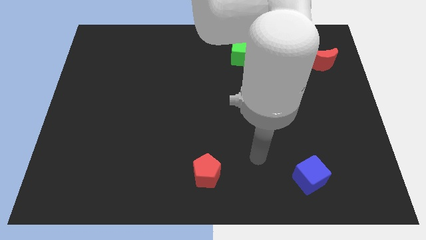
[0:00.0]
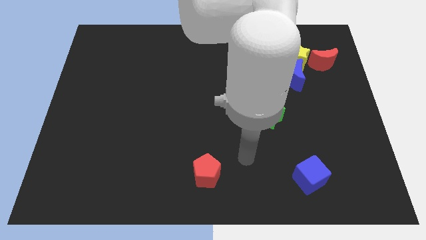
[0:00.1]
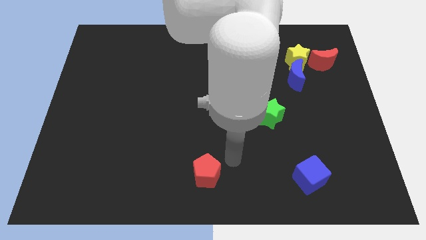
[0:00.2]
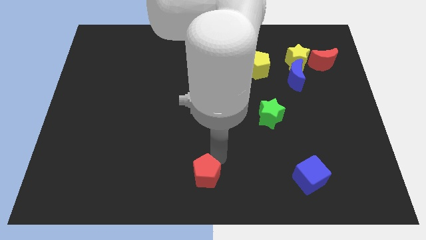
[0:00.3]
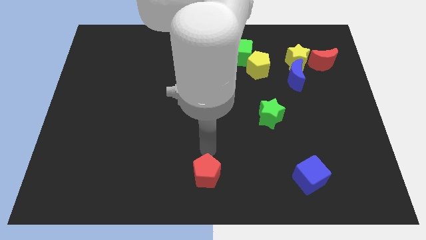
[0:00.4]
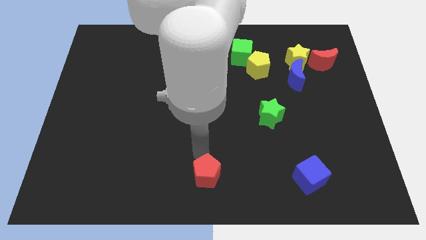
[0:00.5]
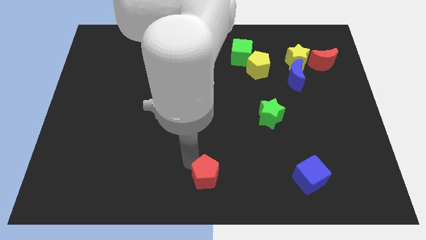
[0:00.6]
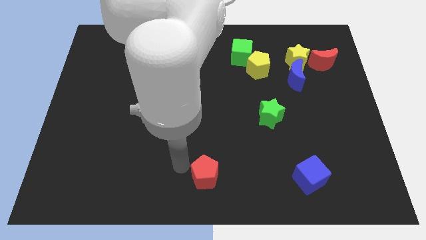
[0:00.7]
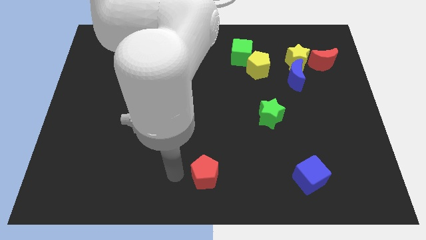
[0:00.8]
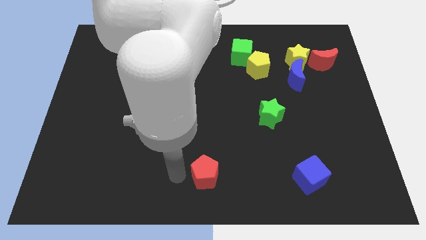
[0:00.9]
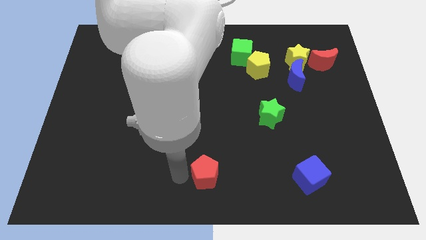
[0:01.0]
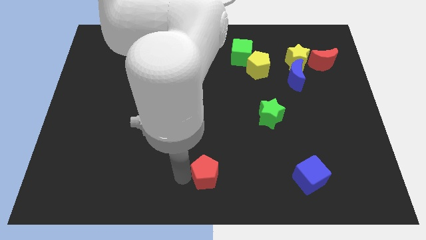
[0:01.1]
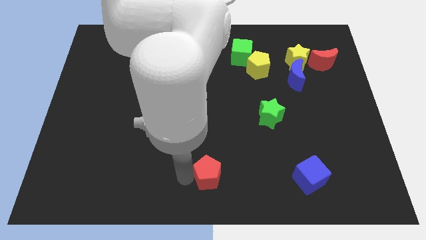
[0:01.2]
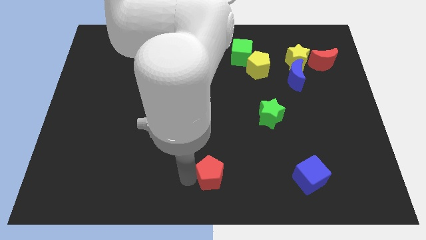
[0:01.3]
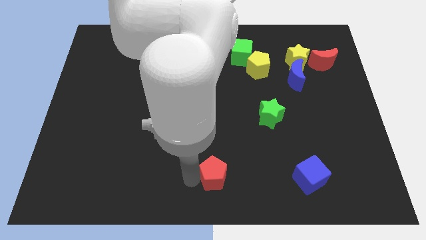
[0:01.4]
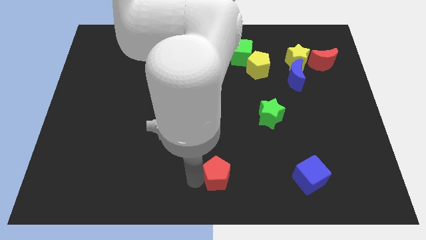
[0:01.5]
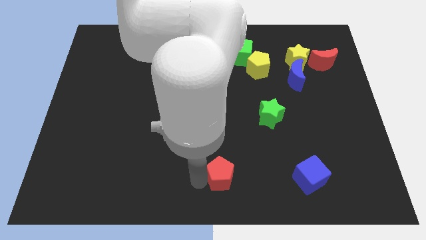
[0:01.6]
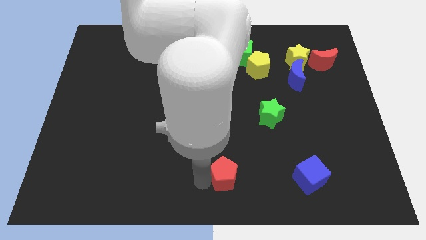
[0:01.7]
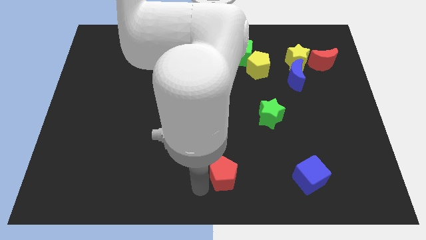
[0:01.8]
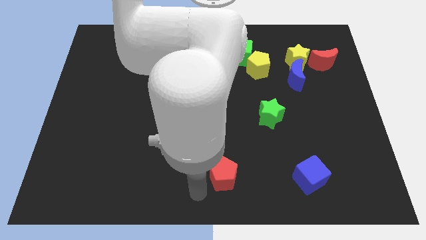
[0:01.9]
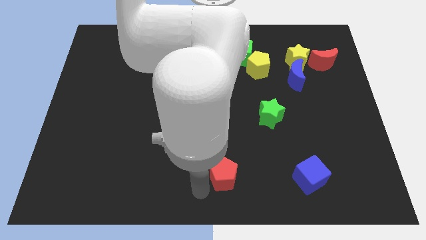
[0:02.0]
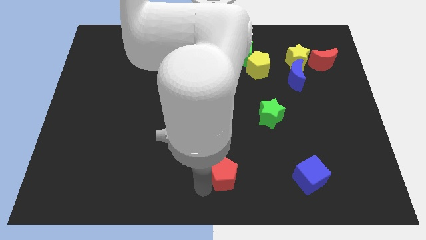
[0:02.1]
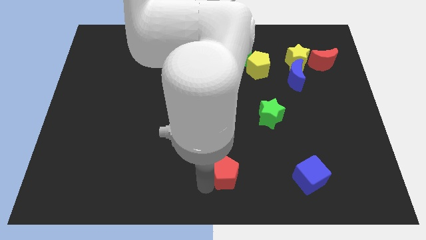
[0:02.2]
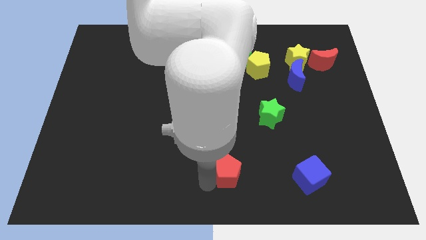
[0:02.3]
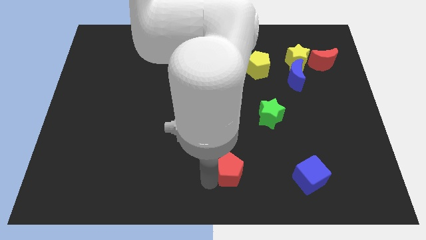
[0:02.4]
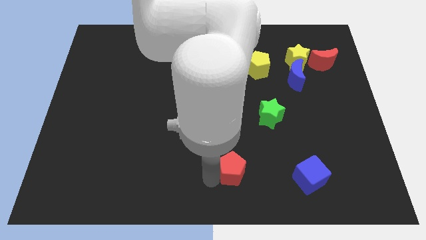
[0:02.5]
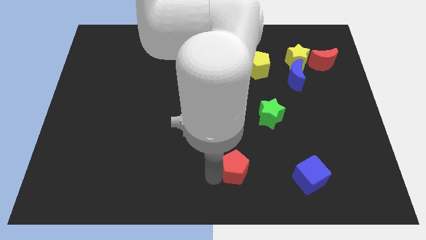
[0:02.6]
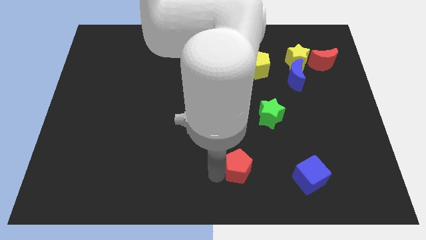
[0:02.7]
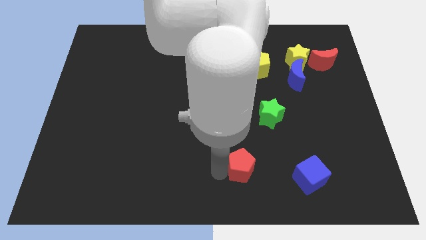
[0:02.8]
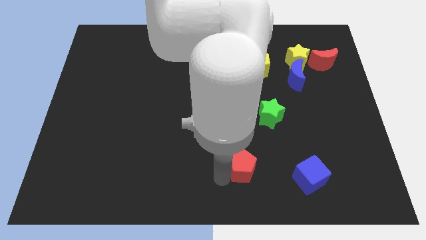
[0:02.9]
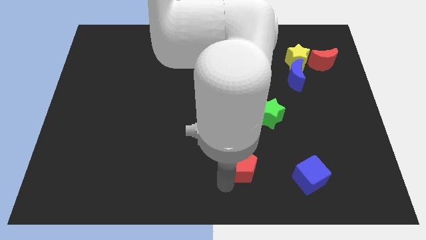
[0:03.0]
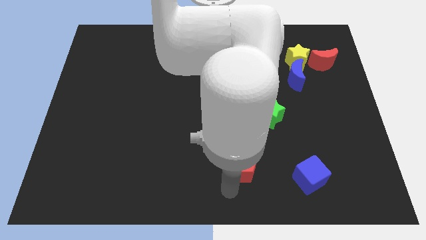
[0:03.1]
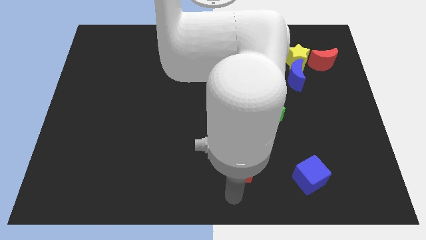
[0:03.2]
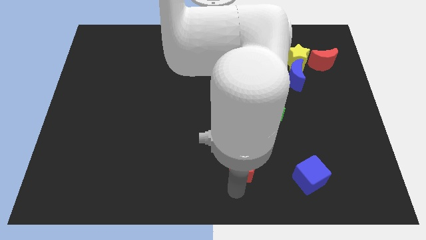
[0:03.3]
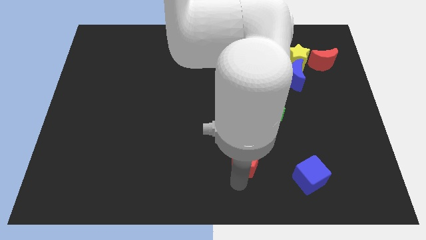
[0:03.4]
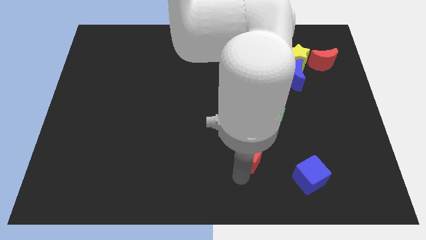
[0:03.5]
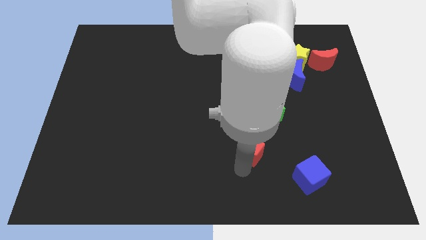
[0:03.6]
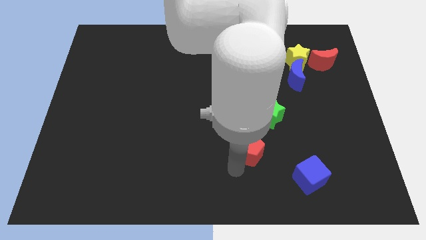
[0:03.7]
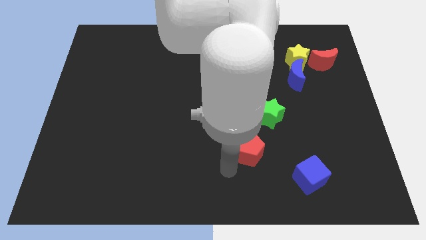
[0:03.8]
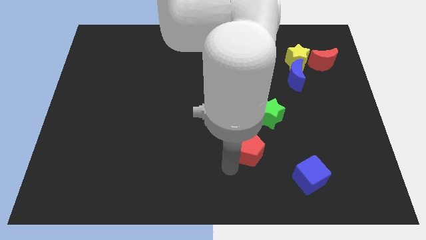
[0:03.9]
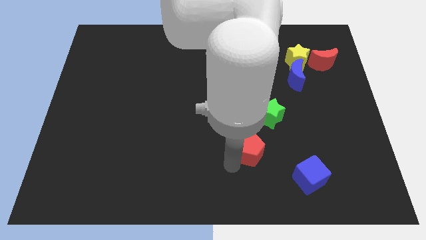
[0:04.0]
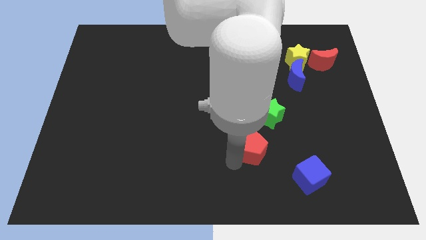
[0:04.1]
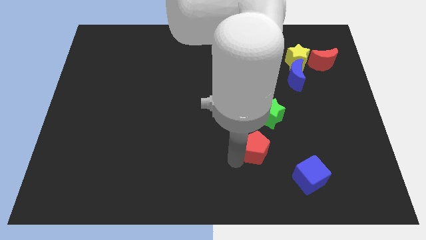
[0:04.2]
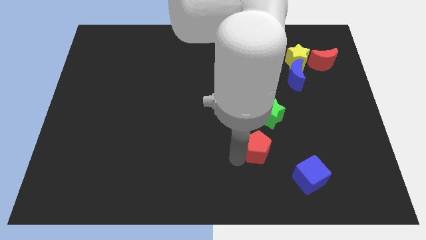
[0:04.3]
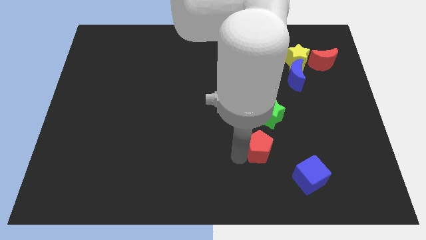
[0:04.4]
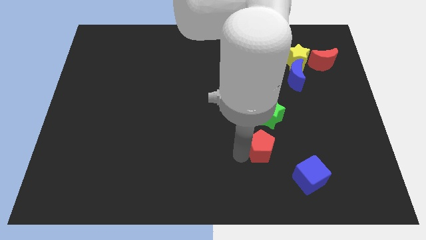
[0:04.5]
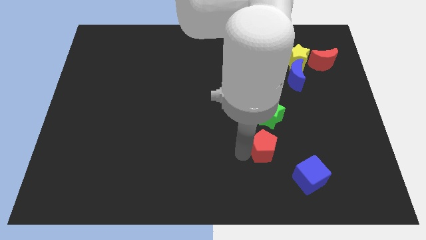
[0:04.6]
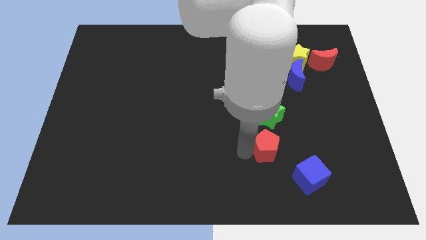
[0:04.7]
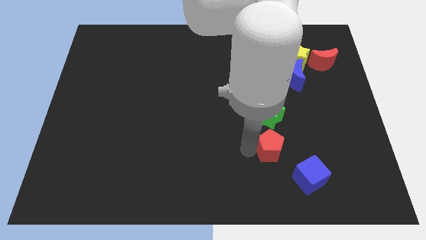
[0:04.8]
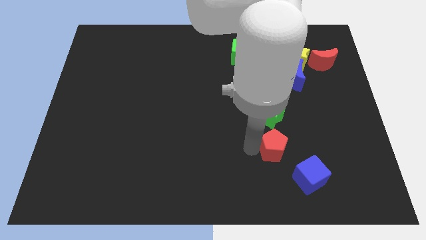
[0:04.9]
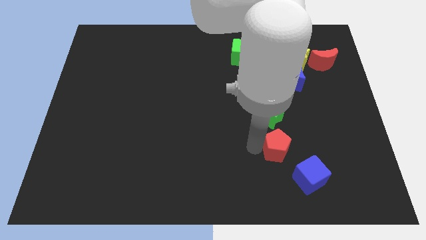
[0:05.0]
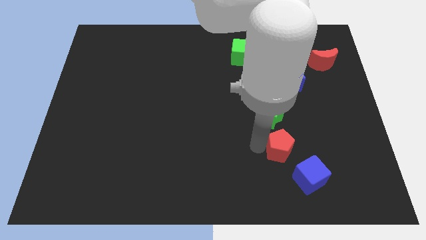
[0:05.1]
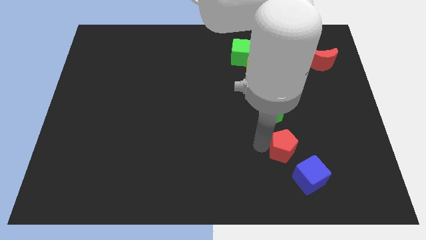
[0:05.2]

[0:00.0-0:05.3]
slide the red pentagon to the bottom right side of the green star

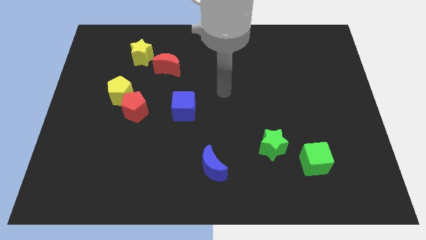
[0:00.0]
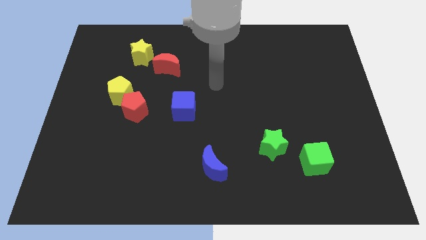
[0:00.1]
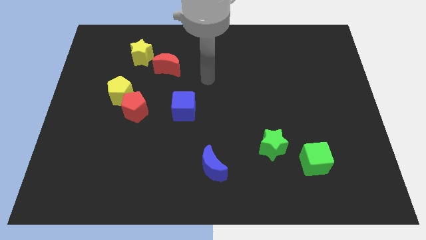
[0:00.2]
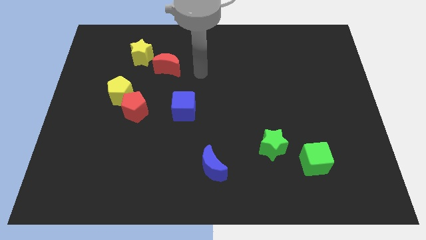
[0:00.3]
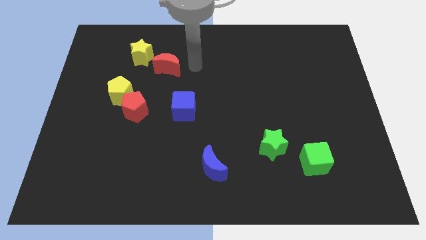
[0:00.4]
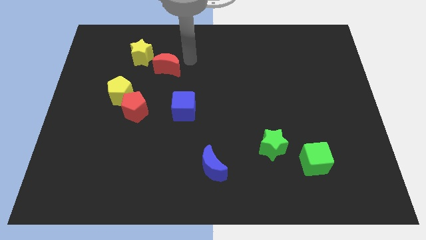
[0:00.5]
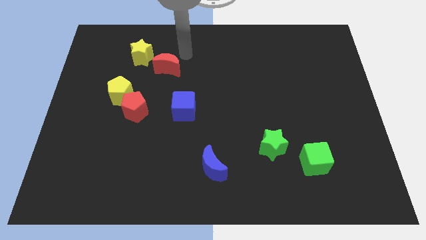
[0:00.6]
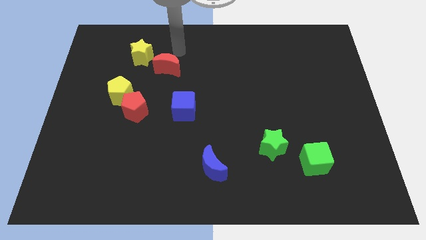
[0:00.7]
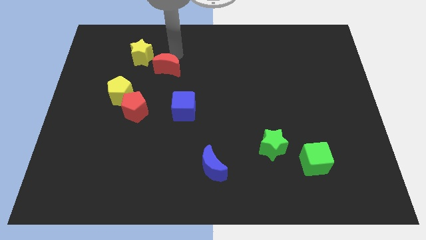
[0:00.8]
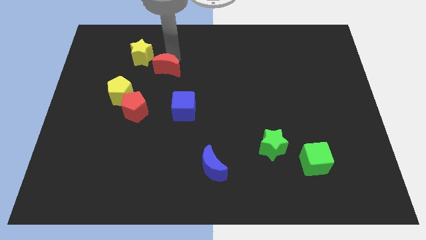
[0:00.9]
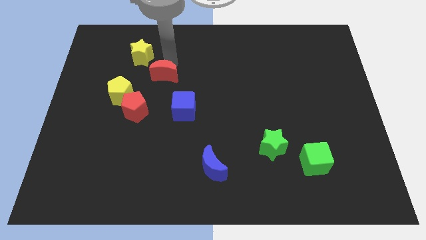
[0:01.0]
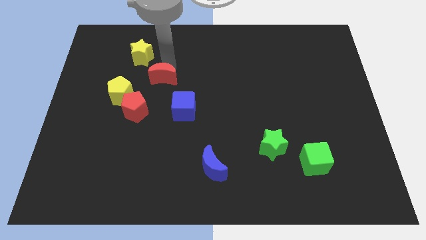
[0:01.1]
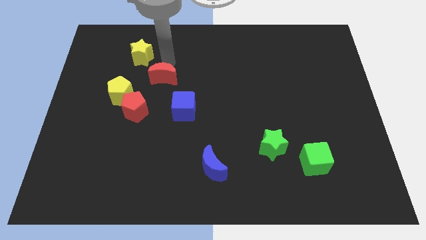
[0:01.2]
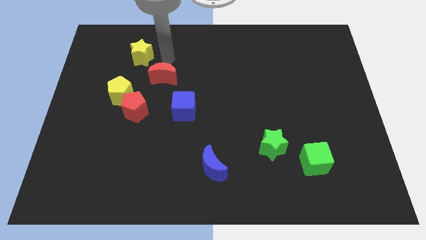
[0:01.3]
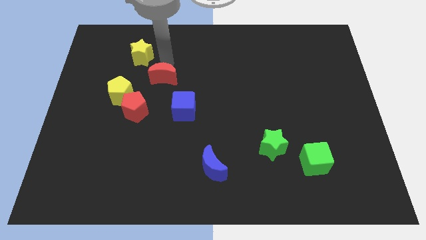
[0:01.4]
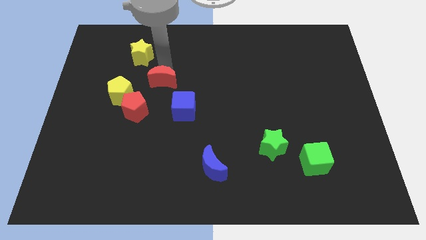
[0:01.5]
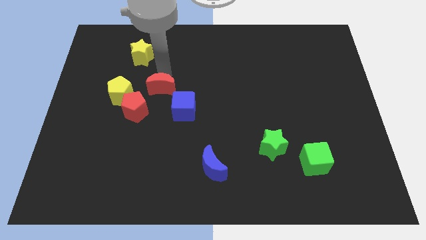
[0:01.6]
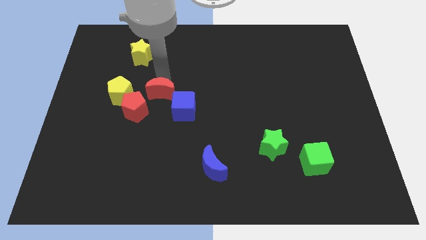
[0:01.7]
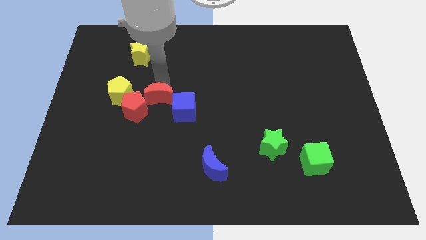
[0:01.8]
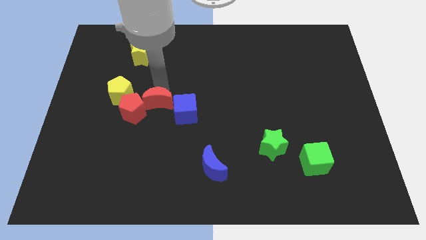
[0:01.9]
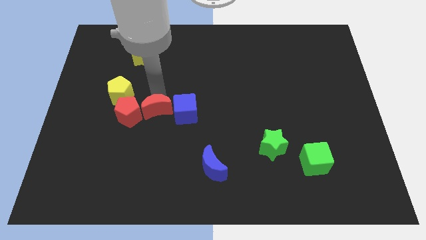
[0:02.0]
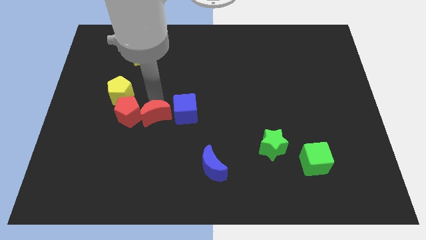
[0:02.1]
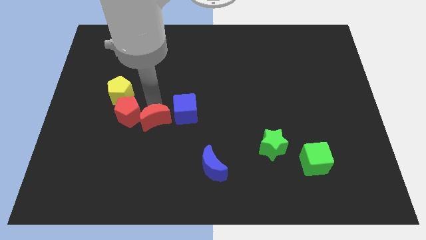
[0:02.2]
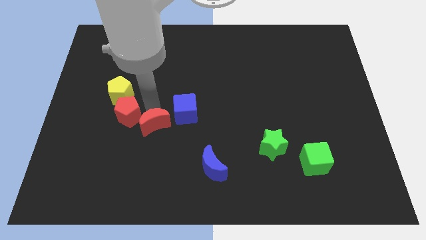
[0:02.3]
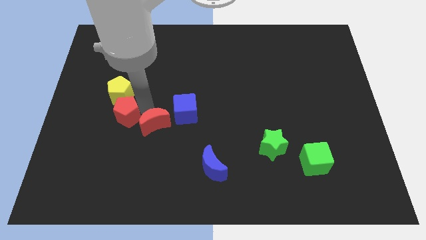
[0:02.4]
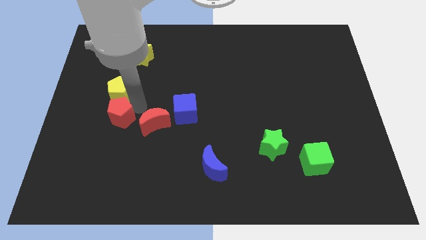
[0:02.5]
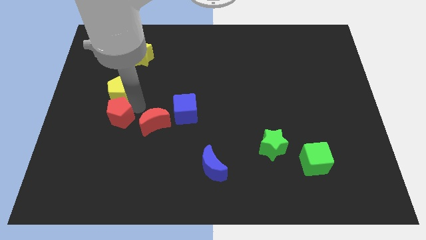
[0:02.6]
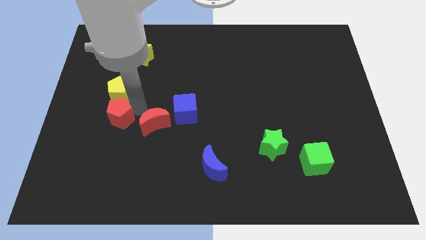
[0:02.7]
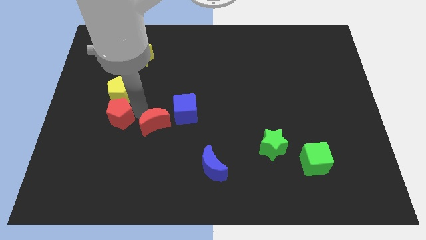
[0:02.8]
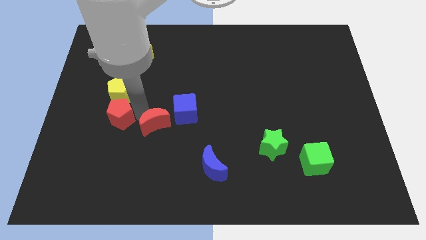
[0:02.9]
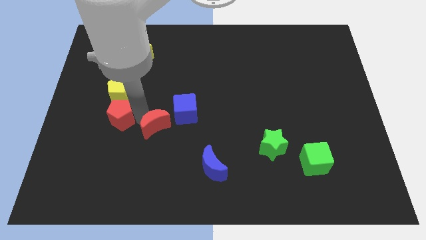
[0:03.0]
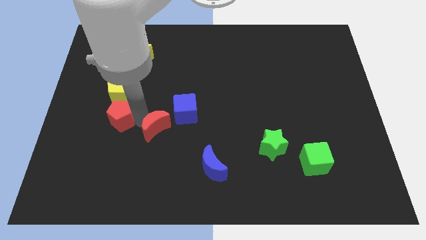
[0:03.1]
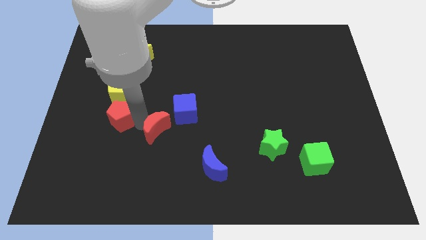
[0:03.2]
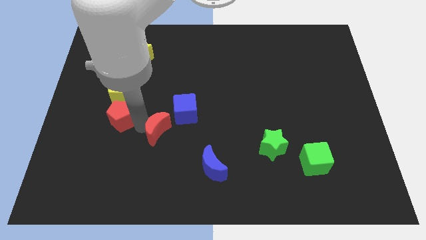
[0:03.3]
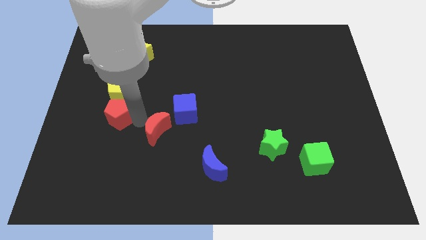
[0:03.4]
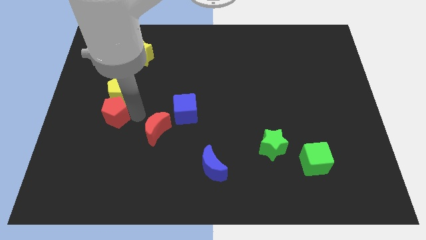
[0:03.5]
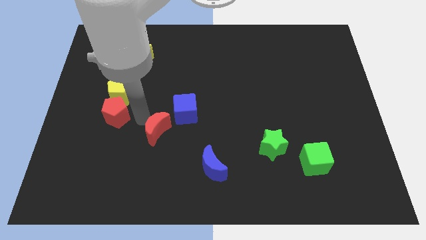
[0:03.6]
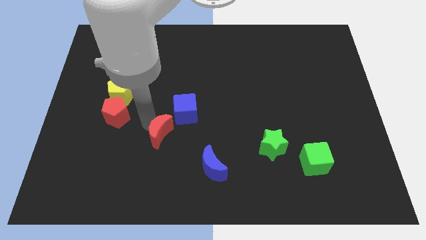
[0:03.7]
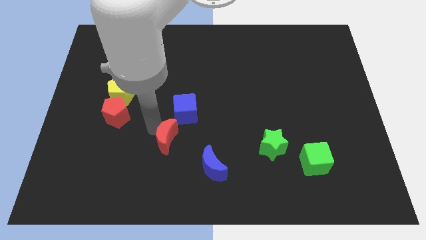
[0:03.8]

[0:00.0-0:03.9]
put the red moon below the blue cube
